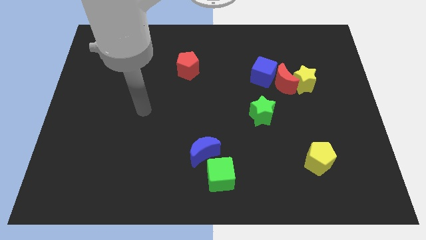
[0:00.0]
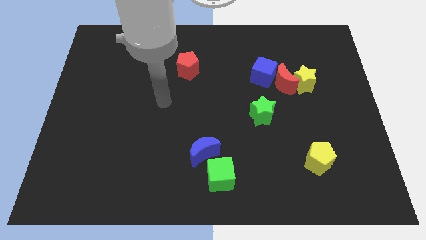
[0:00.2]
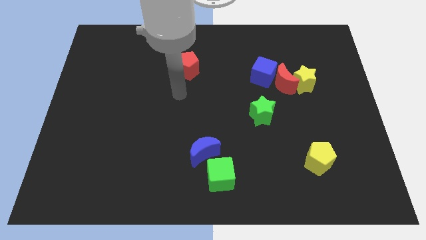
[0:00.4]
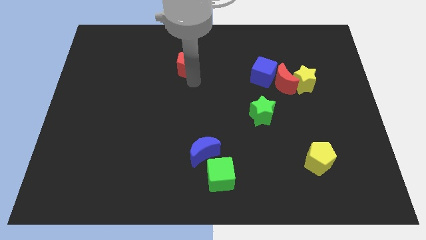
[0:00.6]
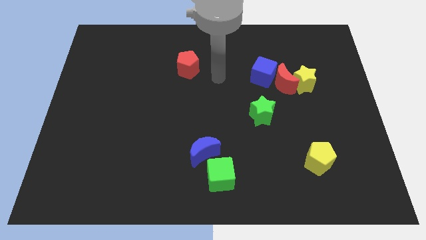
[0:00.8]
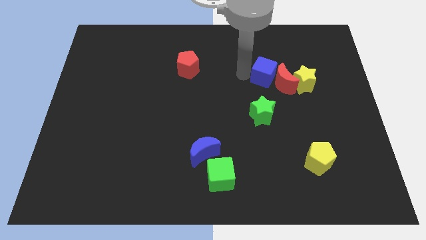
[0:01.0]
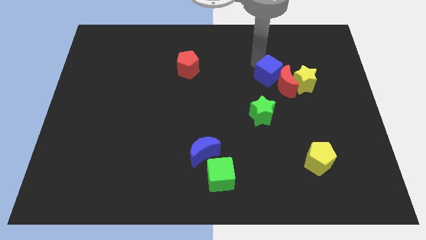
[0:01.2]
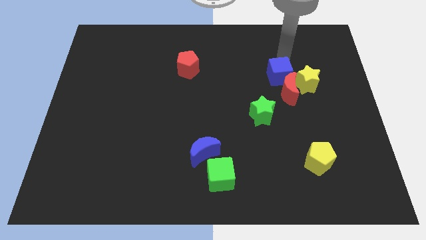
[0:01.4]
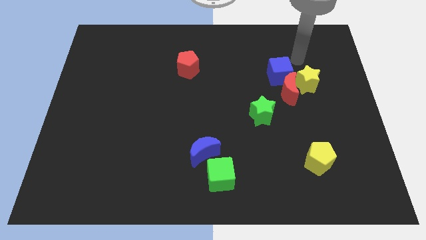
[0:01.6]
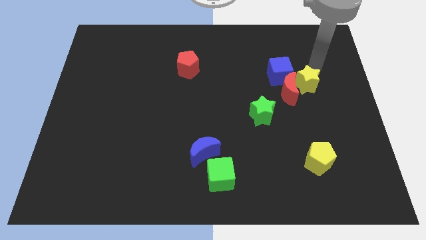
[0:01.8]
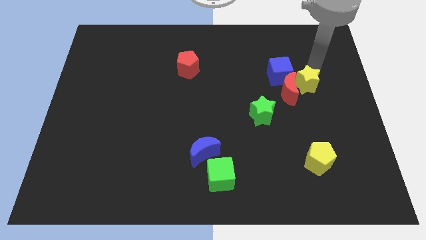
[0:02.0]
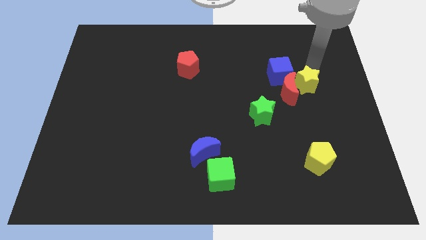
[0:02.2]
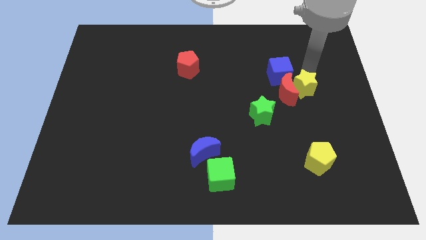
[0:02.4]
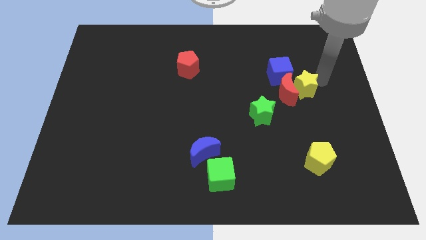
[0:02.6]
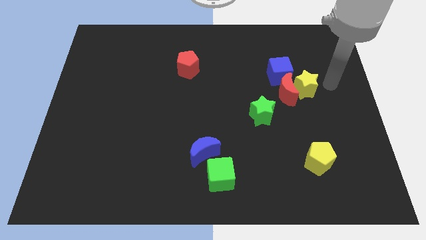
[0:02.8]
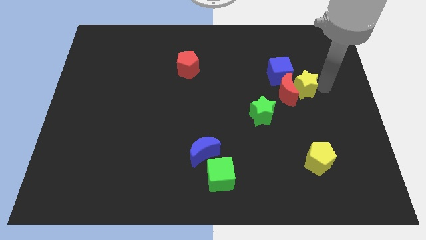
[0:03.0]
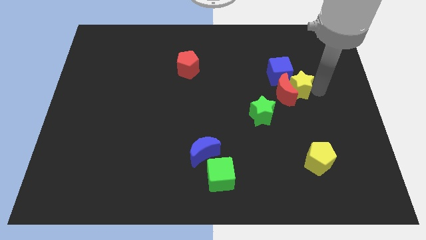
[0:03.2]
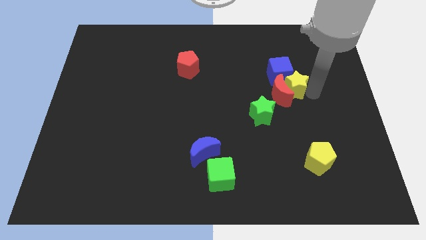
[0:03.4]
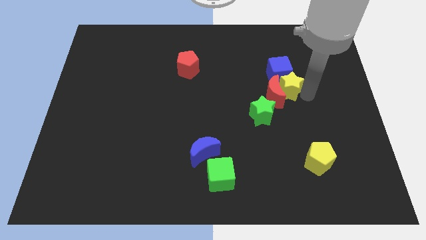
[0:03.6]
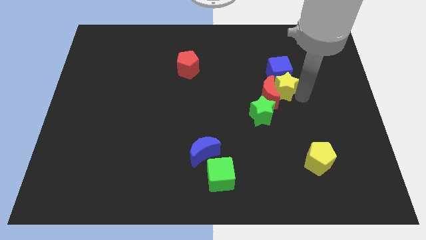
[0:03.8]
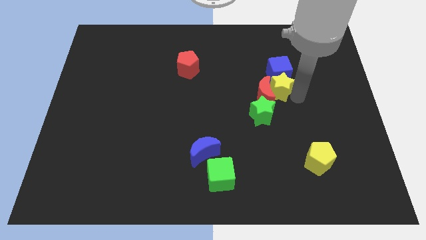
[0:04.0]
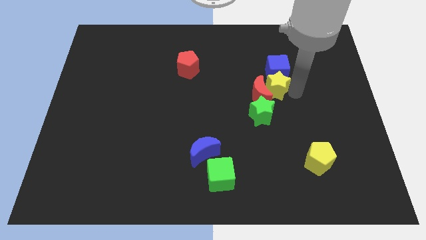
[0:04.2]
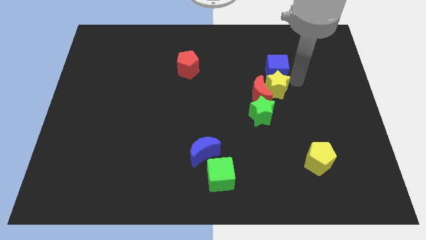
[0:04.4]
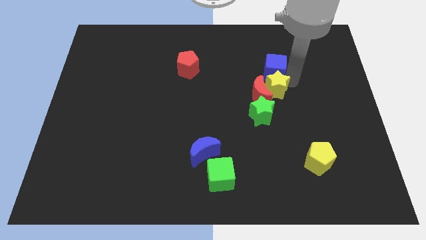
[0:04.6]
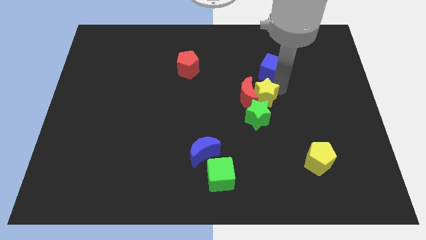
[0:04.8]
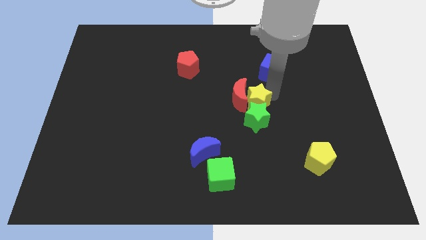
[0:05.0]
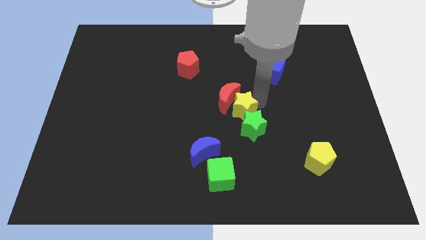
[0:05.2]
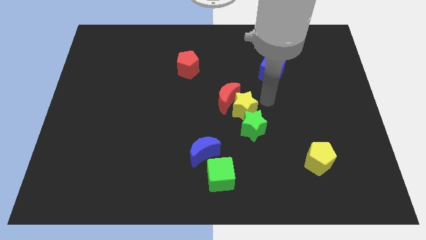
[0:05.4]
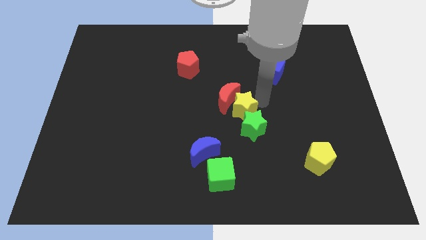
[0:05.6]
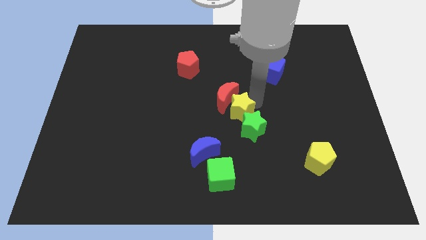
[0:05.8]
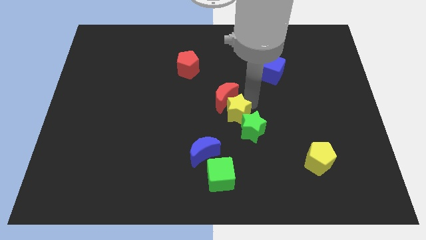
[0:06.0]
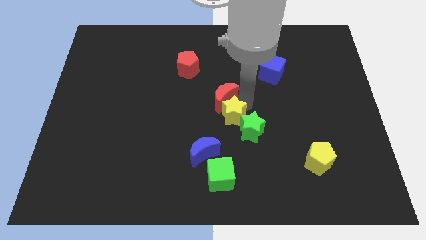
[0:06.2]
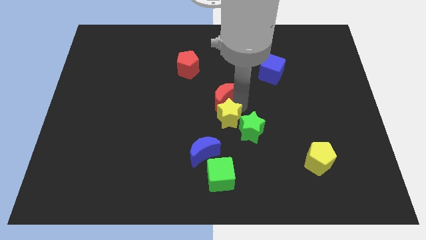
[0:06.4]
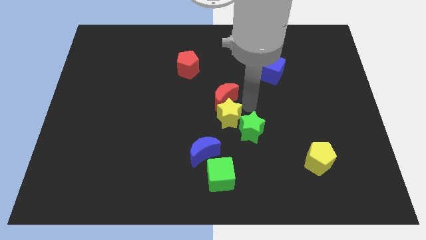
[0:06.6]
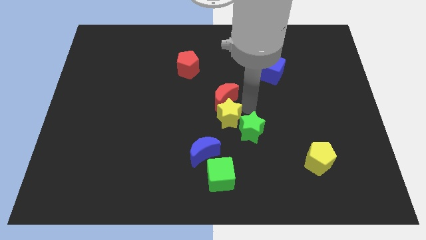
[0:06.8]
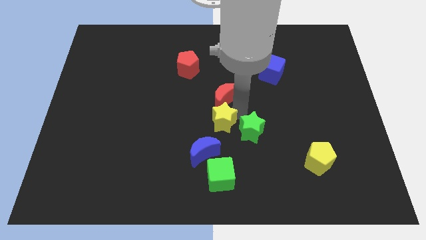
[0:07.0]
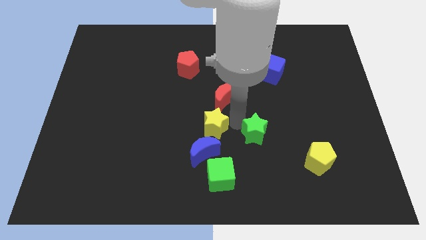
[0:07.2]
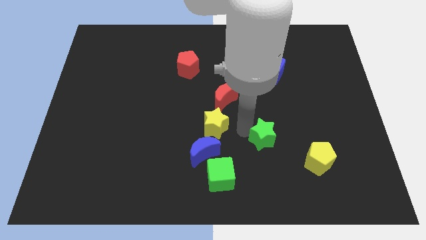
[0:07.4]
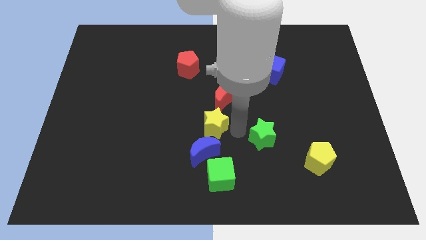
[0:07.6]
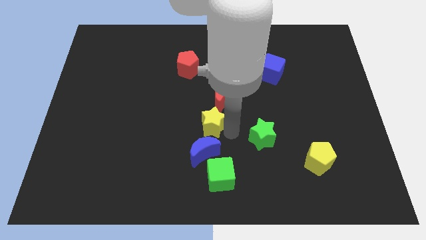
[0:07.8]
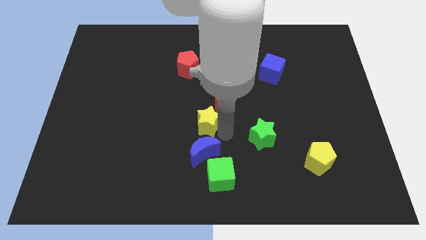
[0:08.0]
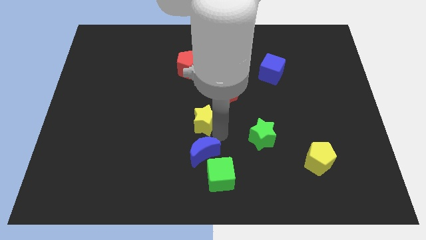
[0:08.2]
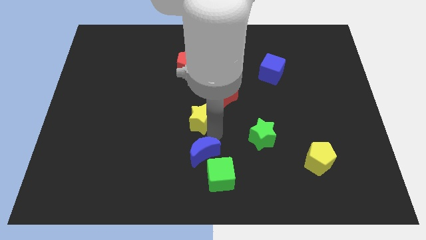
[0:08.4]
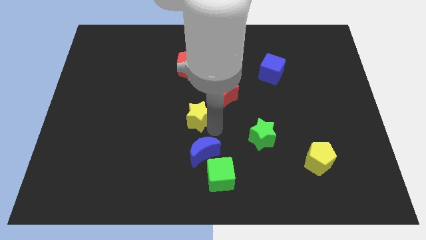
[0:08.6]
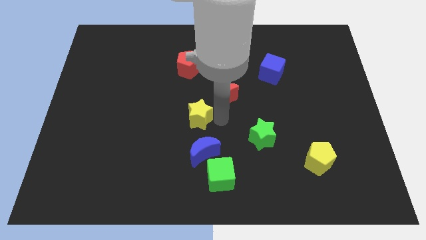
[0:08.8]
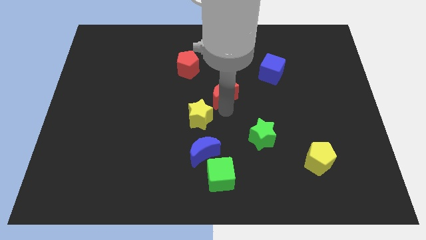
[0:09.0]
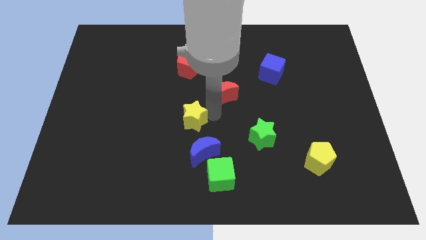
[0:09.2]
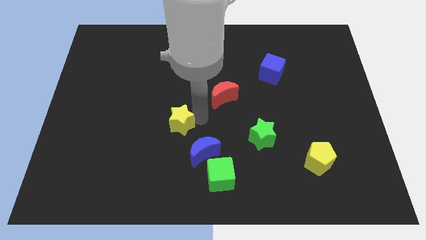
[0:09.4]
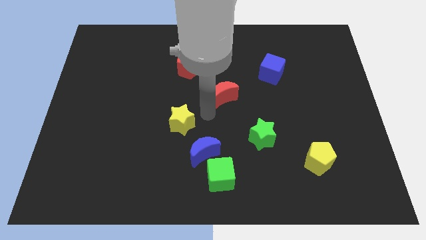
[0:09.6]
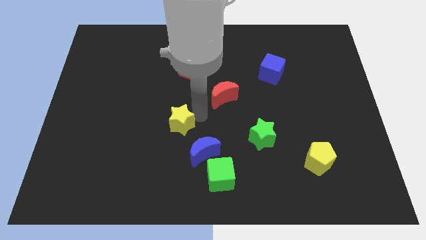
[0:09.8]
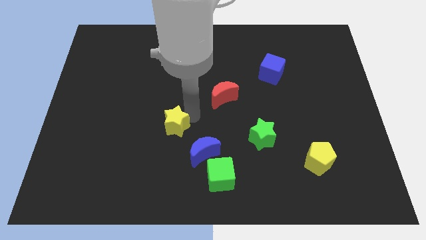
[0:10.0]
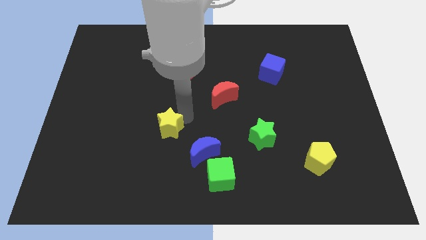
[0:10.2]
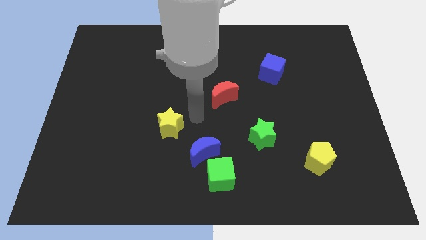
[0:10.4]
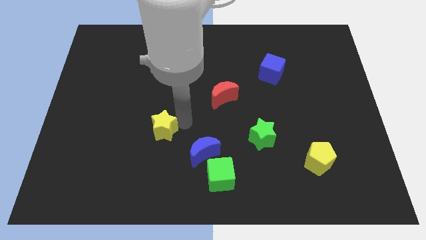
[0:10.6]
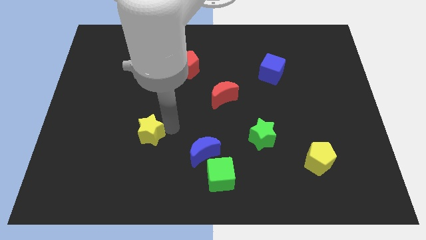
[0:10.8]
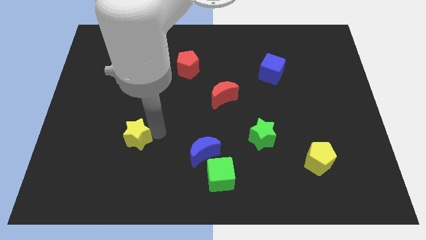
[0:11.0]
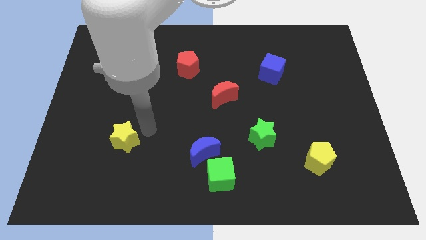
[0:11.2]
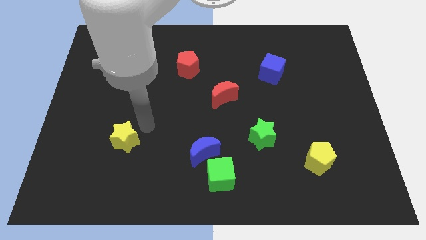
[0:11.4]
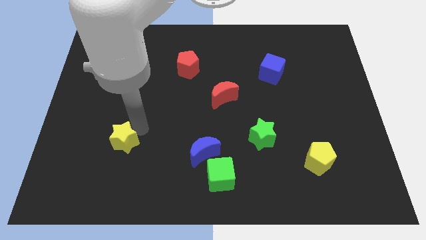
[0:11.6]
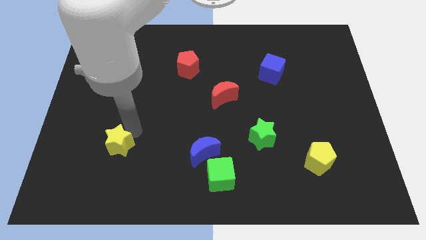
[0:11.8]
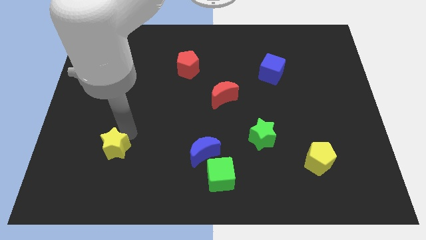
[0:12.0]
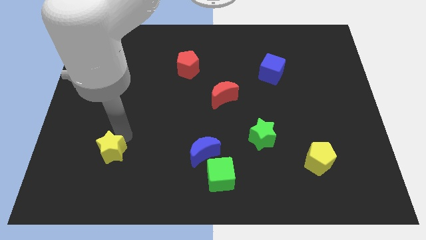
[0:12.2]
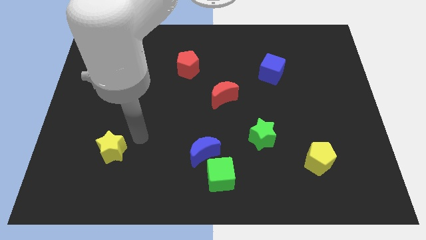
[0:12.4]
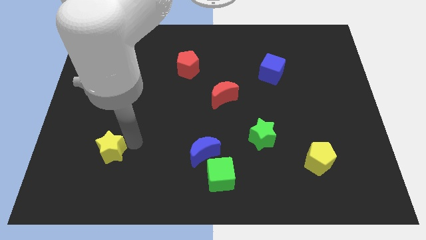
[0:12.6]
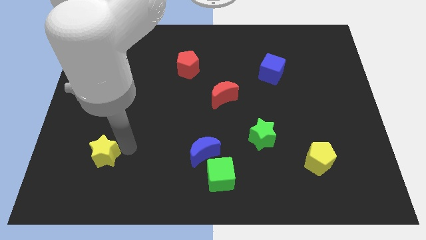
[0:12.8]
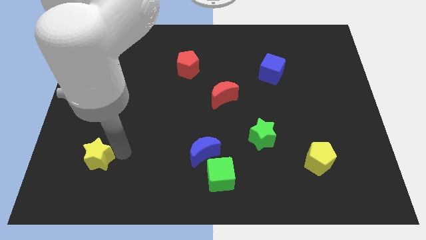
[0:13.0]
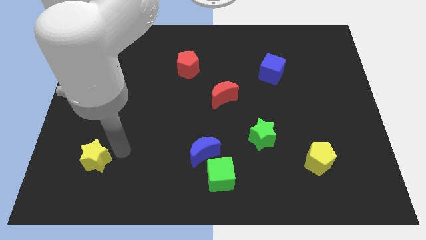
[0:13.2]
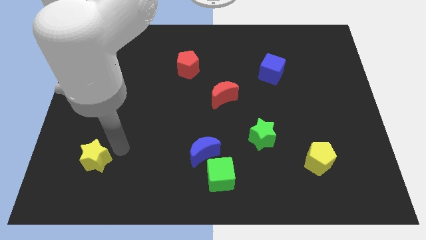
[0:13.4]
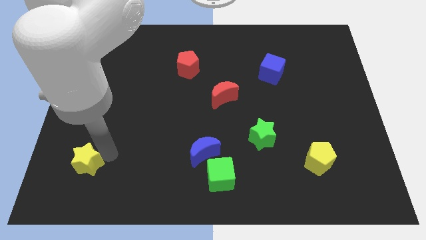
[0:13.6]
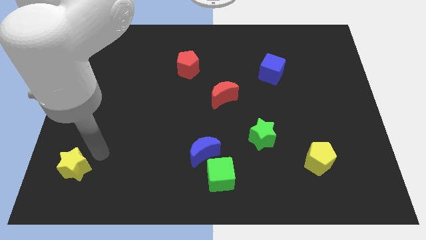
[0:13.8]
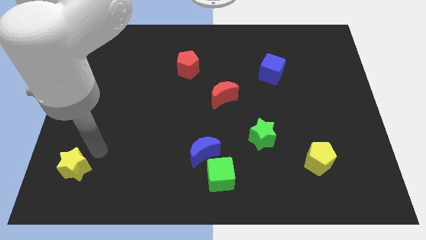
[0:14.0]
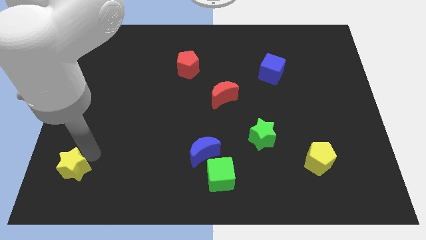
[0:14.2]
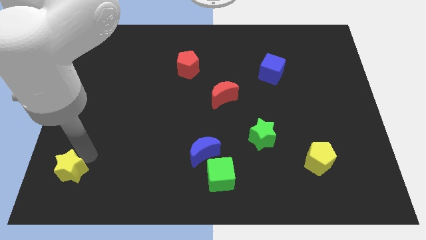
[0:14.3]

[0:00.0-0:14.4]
put the yellow star to the bottom left corner
